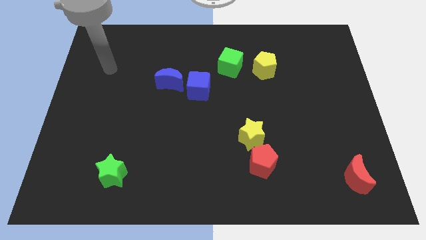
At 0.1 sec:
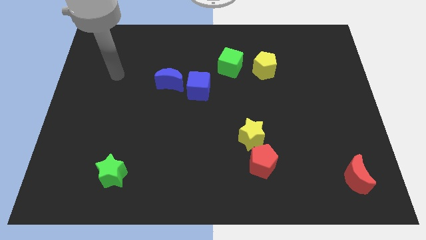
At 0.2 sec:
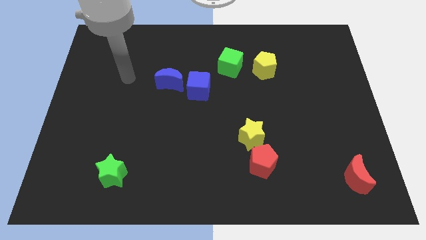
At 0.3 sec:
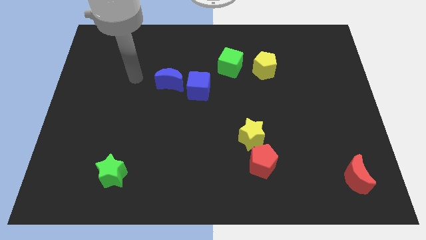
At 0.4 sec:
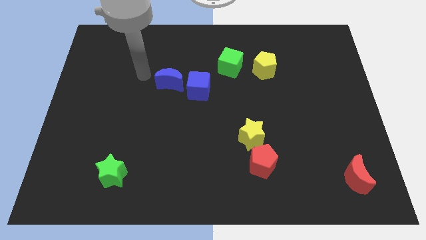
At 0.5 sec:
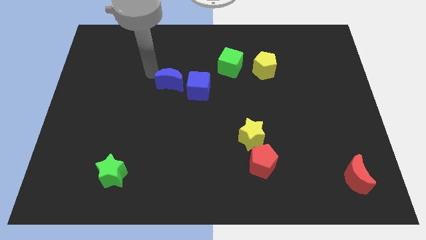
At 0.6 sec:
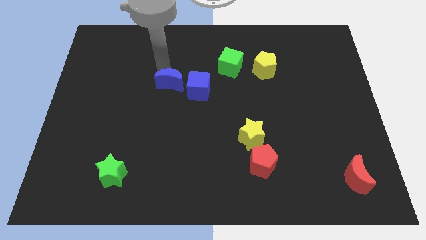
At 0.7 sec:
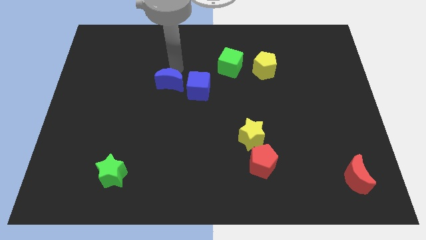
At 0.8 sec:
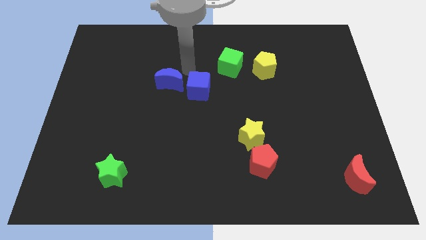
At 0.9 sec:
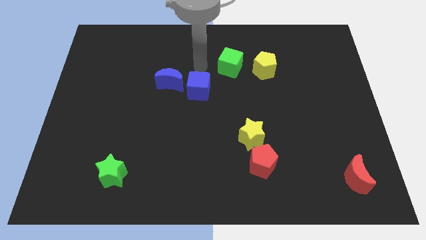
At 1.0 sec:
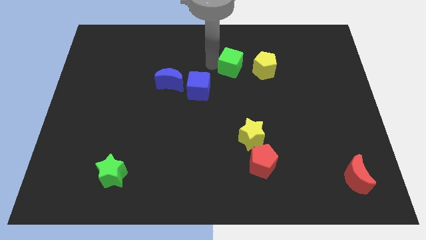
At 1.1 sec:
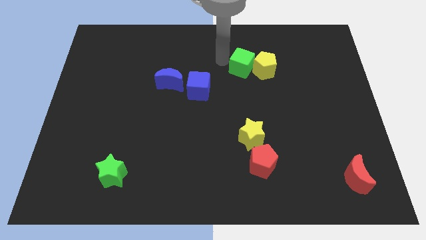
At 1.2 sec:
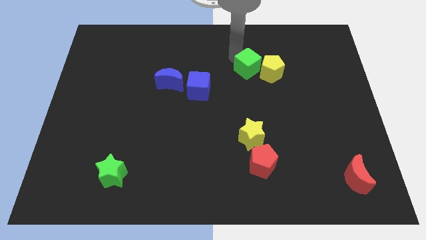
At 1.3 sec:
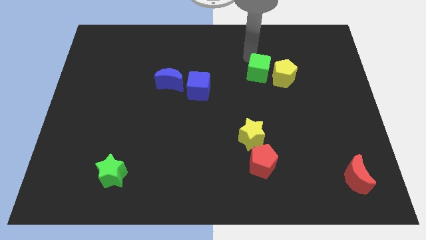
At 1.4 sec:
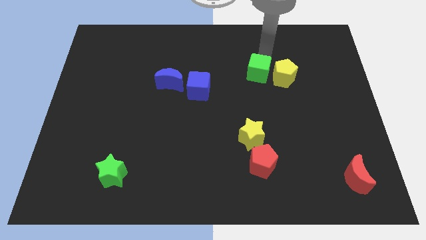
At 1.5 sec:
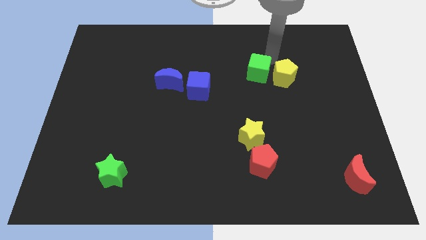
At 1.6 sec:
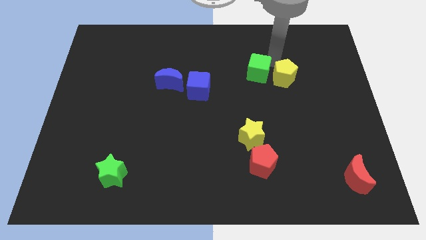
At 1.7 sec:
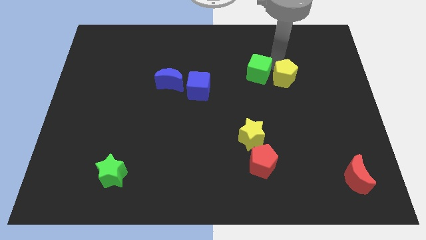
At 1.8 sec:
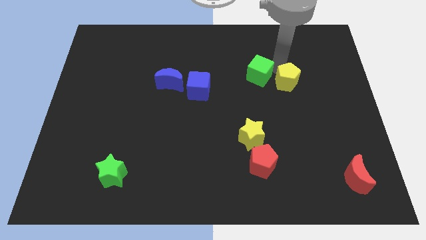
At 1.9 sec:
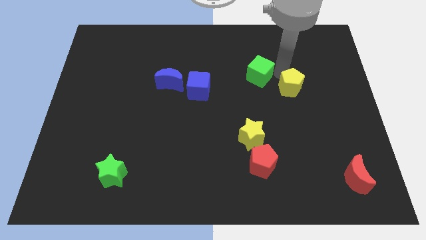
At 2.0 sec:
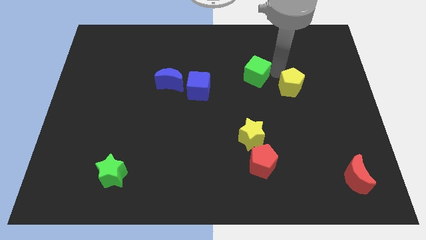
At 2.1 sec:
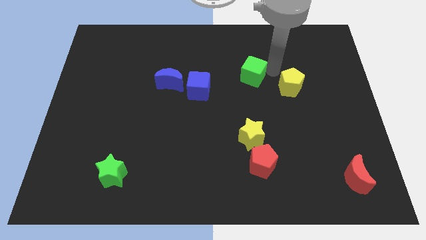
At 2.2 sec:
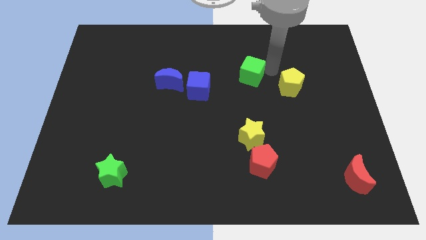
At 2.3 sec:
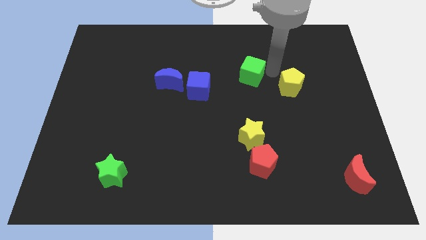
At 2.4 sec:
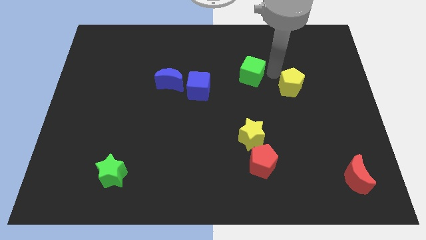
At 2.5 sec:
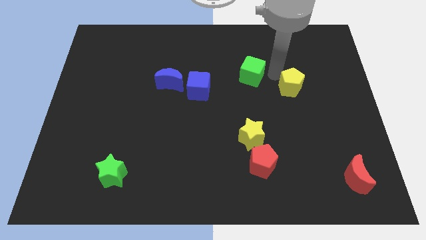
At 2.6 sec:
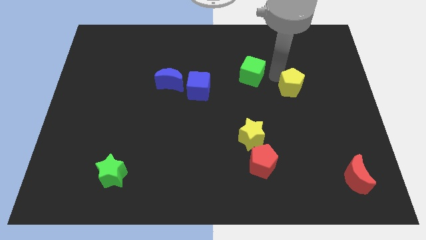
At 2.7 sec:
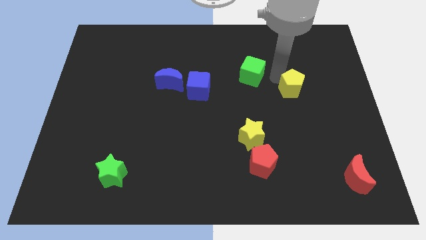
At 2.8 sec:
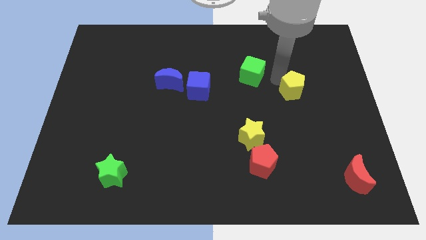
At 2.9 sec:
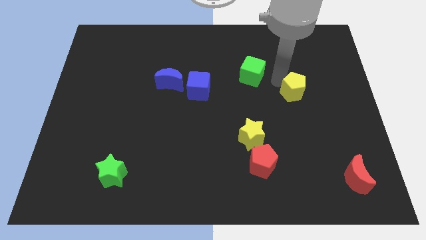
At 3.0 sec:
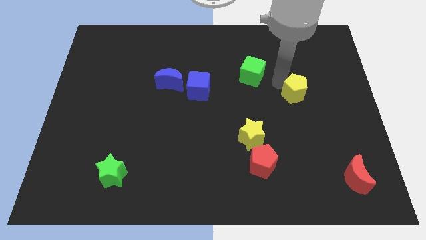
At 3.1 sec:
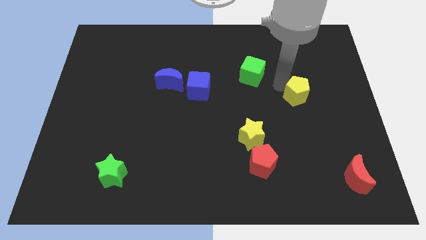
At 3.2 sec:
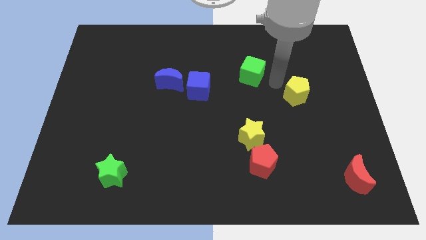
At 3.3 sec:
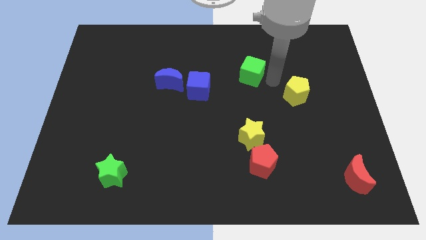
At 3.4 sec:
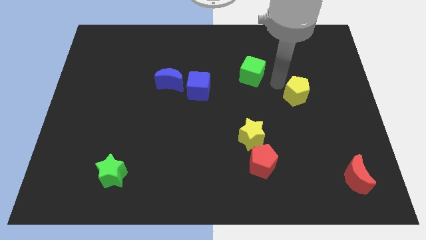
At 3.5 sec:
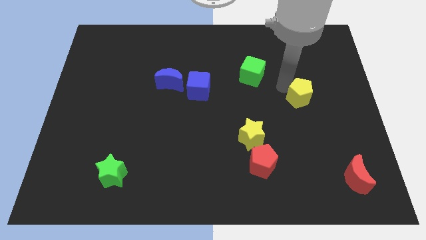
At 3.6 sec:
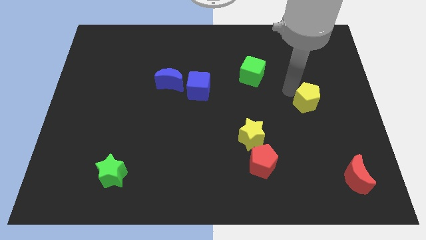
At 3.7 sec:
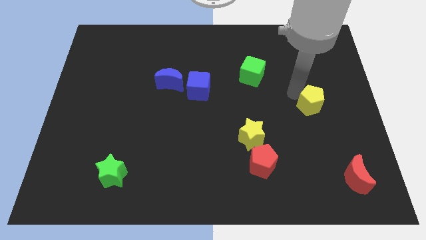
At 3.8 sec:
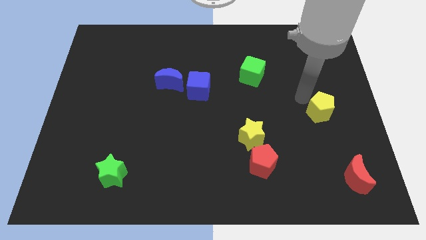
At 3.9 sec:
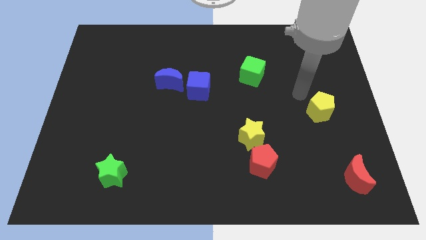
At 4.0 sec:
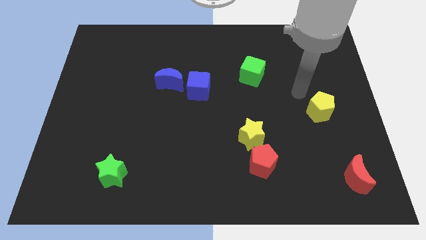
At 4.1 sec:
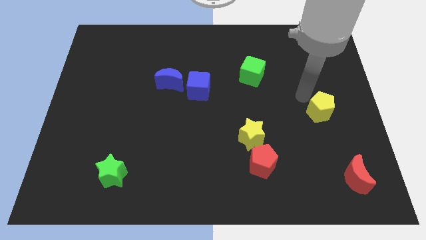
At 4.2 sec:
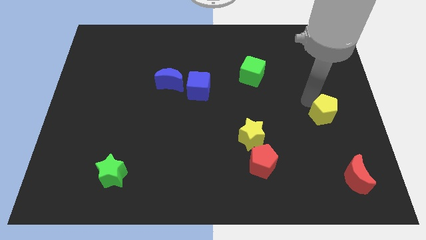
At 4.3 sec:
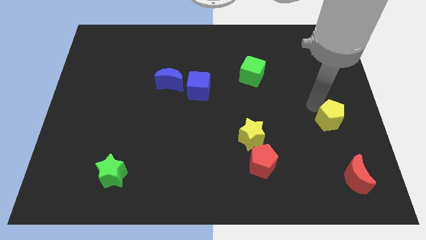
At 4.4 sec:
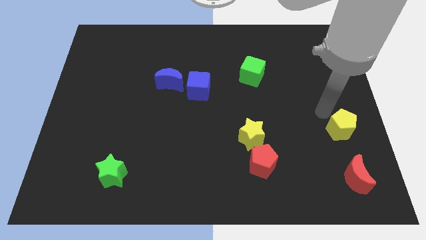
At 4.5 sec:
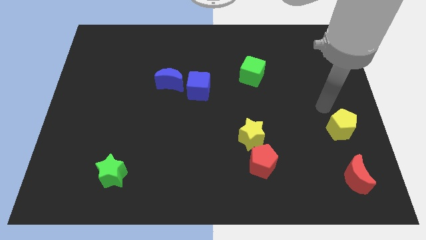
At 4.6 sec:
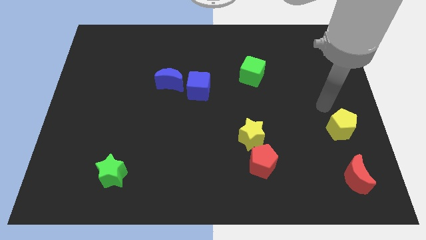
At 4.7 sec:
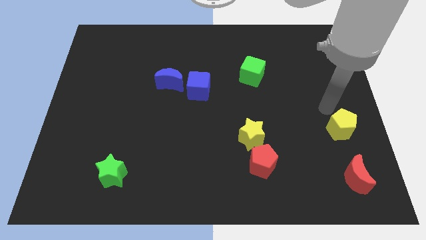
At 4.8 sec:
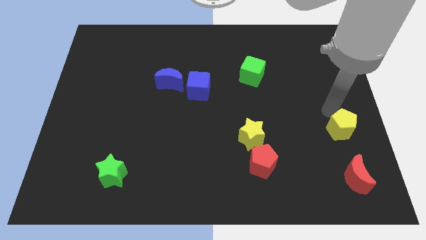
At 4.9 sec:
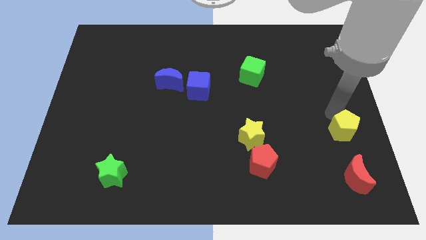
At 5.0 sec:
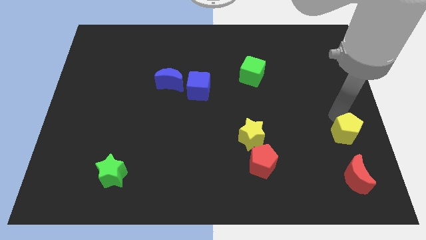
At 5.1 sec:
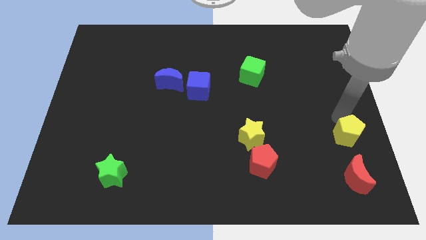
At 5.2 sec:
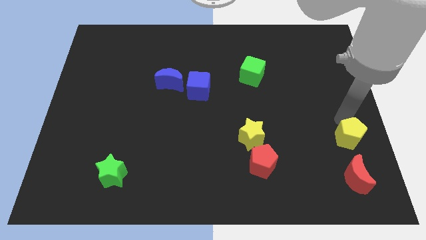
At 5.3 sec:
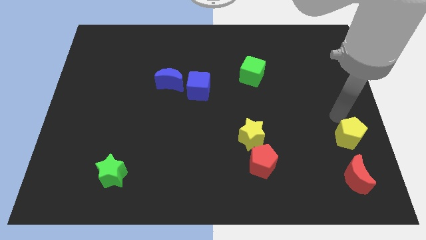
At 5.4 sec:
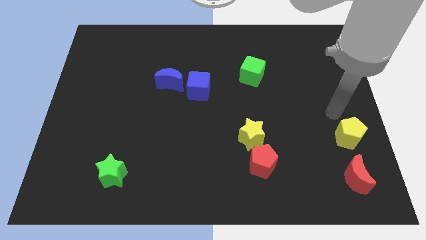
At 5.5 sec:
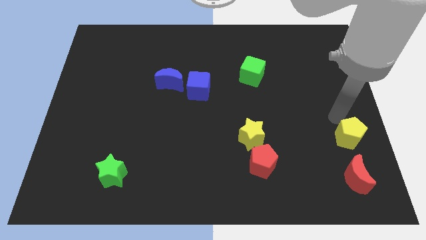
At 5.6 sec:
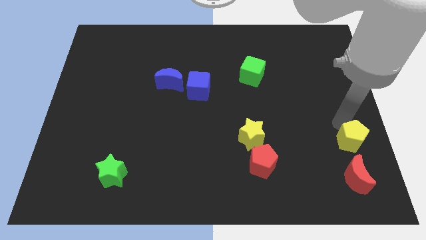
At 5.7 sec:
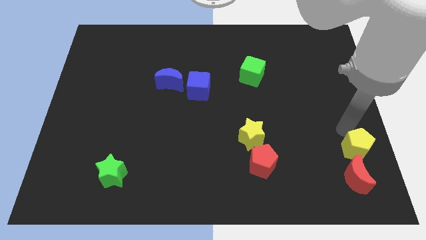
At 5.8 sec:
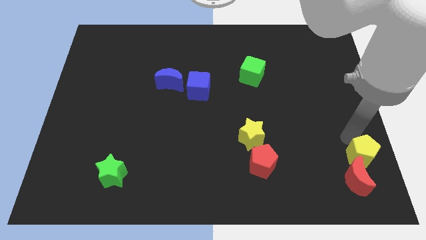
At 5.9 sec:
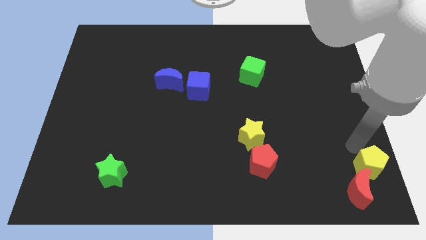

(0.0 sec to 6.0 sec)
push the yellow pentagon to the bottom right

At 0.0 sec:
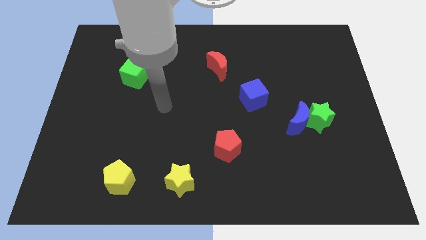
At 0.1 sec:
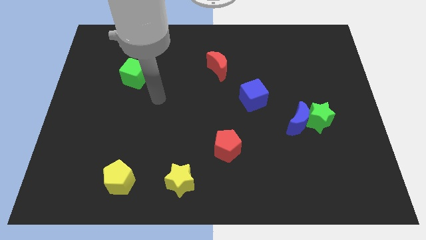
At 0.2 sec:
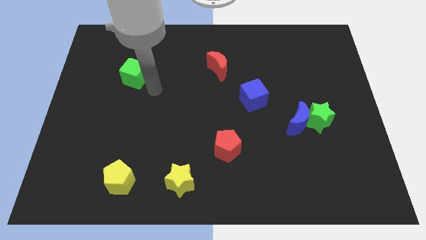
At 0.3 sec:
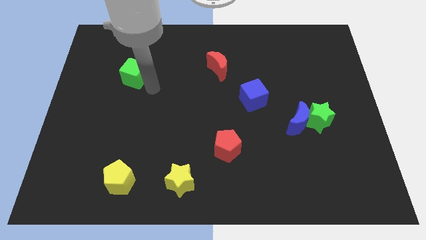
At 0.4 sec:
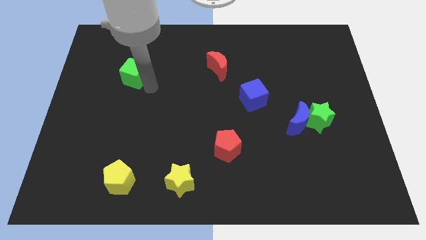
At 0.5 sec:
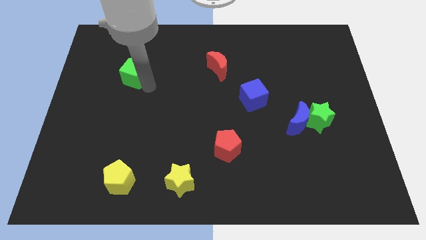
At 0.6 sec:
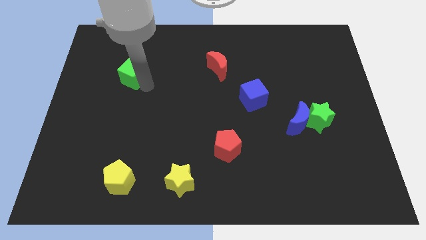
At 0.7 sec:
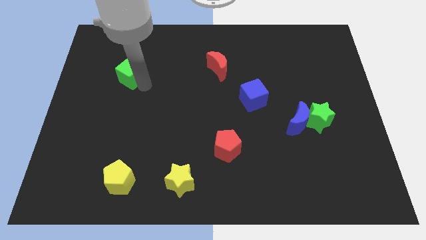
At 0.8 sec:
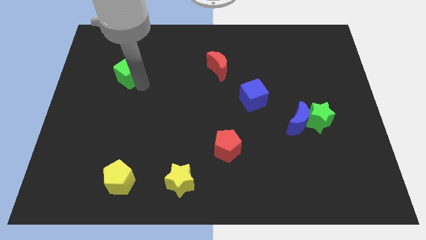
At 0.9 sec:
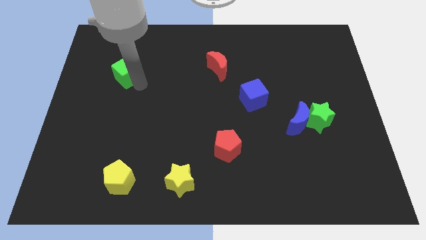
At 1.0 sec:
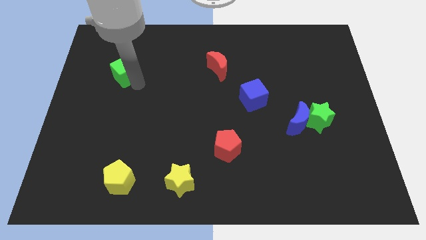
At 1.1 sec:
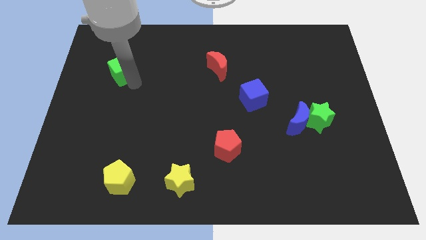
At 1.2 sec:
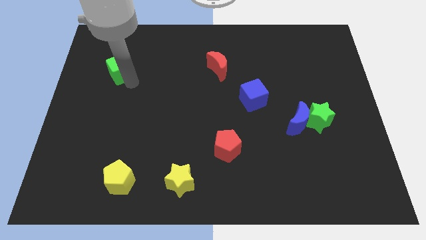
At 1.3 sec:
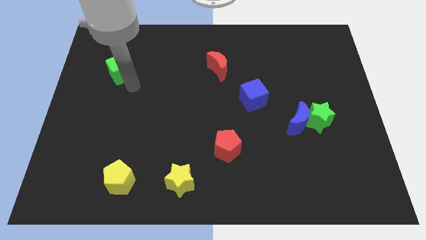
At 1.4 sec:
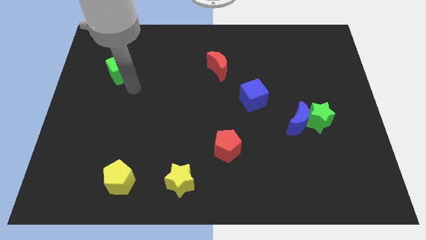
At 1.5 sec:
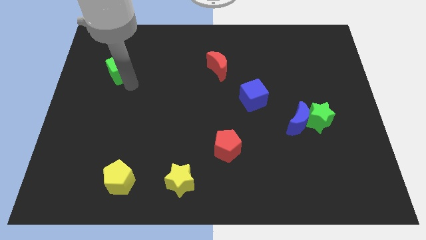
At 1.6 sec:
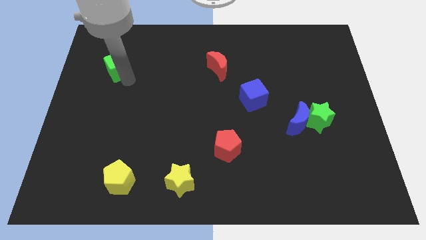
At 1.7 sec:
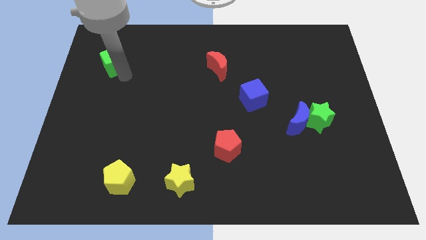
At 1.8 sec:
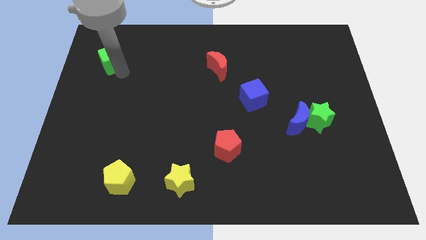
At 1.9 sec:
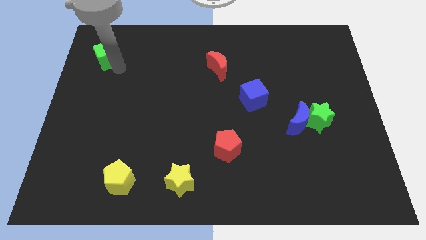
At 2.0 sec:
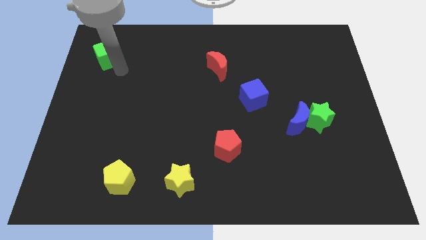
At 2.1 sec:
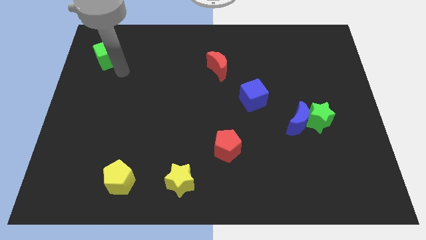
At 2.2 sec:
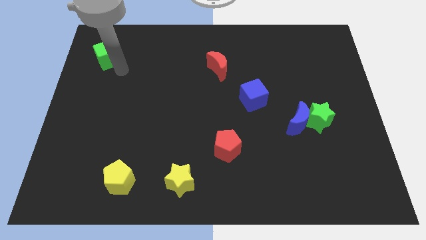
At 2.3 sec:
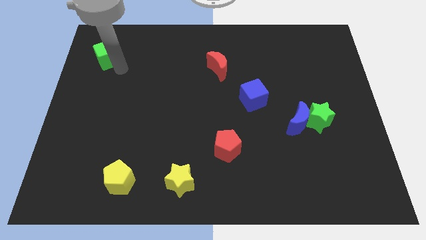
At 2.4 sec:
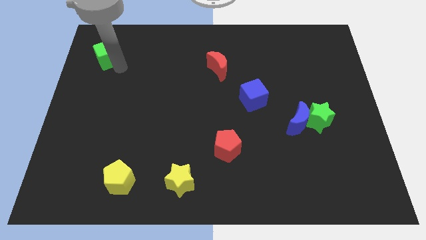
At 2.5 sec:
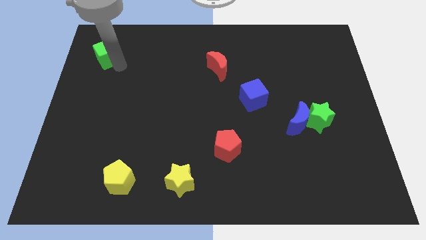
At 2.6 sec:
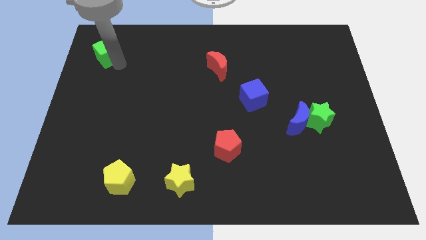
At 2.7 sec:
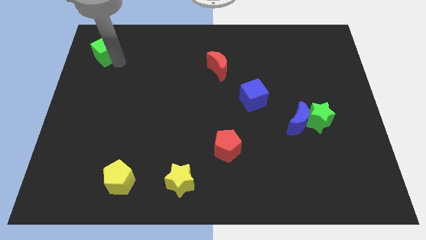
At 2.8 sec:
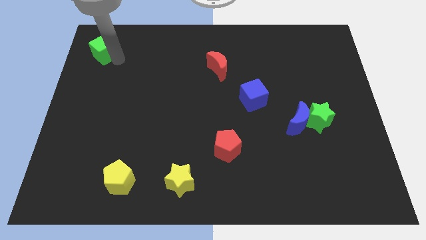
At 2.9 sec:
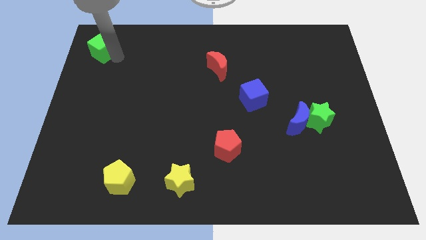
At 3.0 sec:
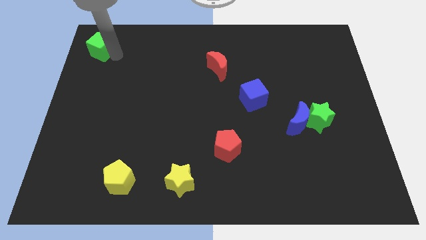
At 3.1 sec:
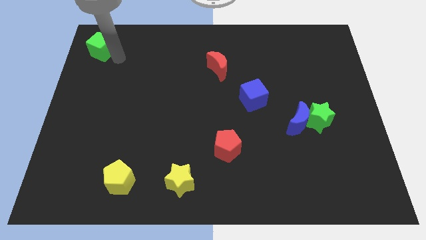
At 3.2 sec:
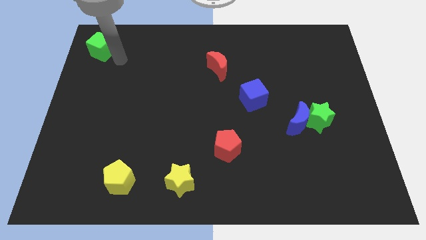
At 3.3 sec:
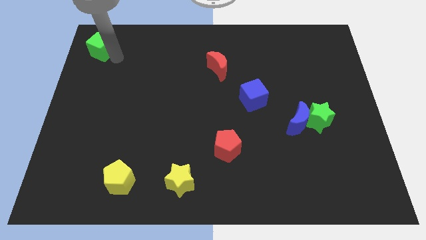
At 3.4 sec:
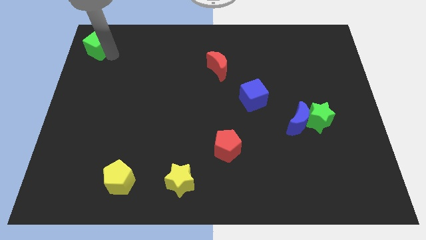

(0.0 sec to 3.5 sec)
put the green cube to the upper left corner
